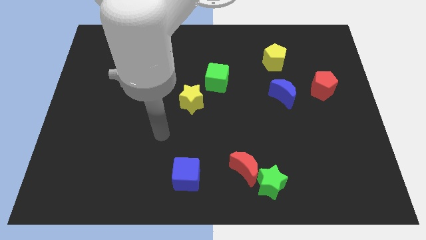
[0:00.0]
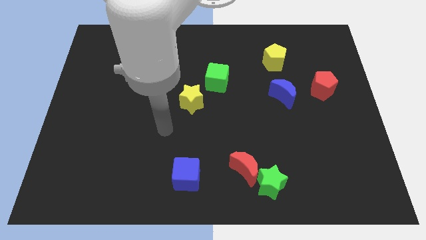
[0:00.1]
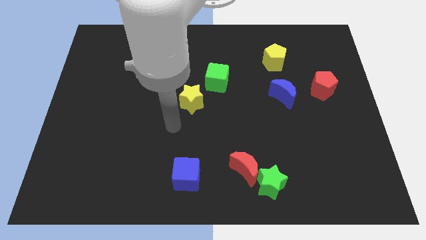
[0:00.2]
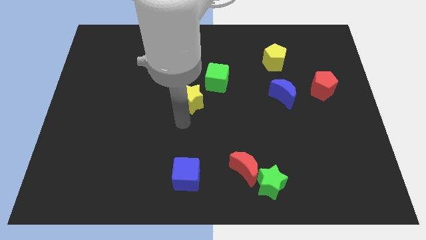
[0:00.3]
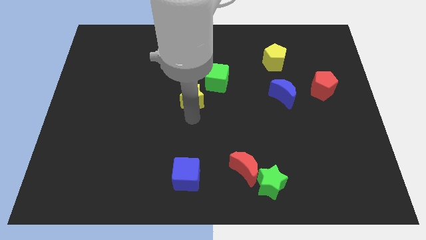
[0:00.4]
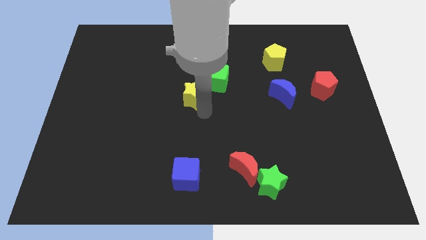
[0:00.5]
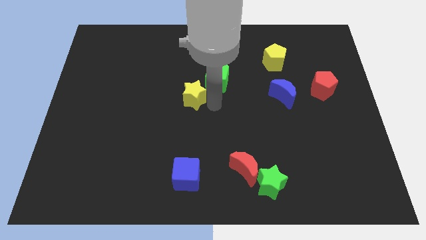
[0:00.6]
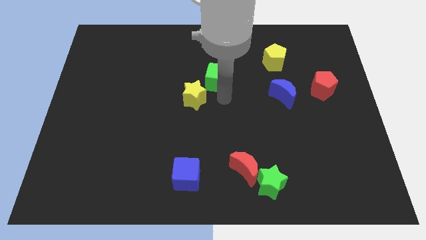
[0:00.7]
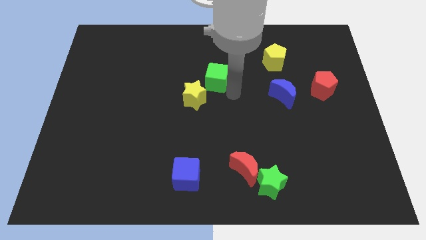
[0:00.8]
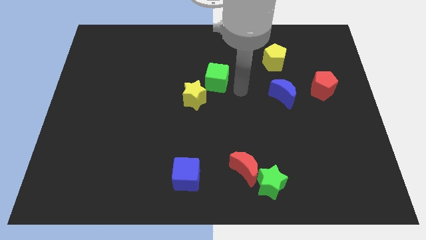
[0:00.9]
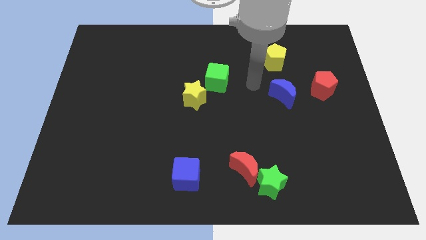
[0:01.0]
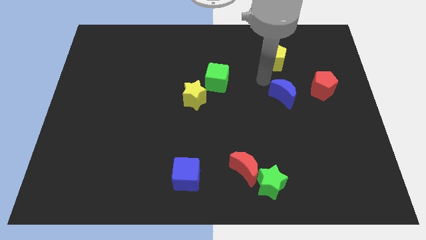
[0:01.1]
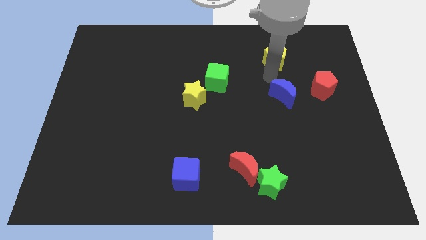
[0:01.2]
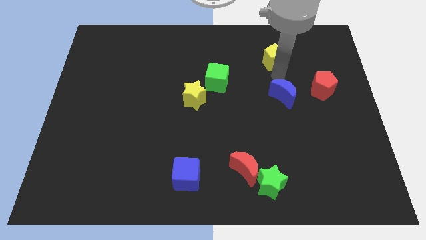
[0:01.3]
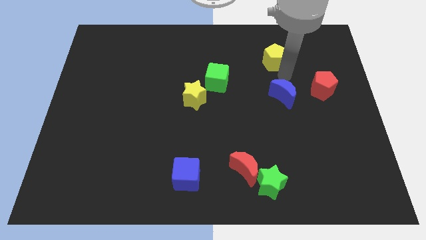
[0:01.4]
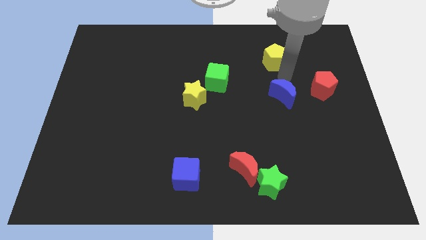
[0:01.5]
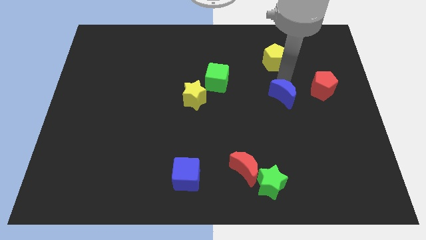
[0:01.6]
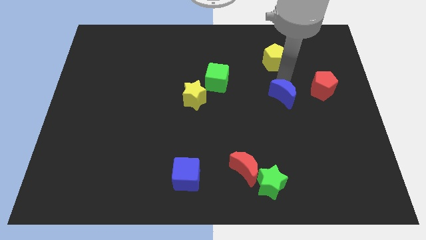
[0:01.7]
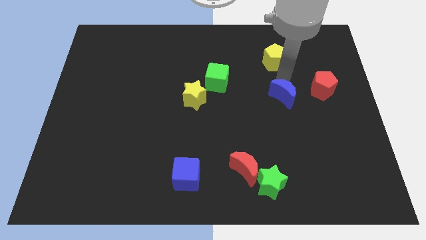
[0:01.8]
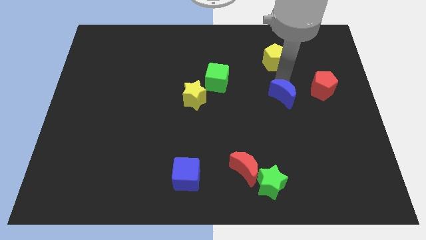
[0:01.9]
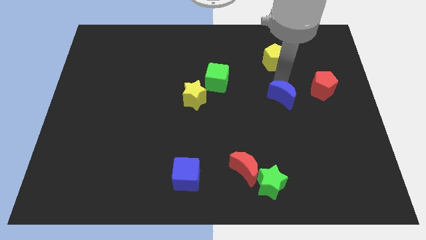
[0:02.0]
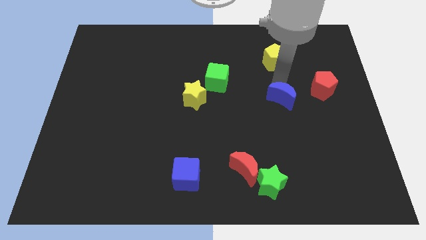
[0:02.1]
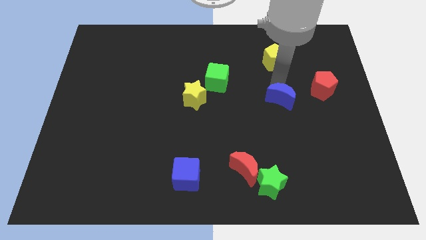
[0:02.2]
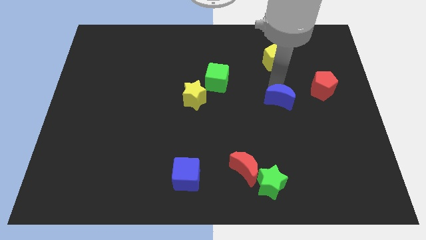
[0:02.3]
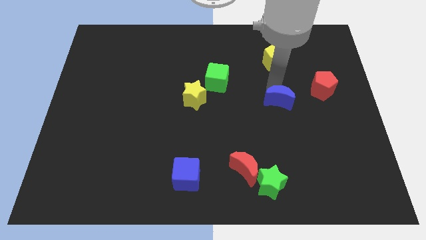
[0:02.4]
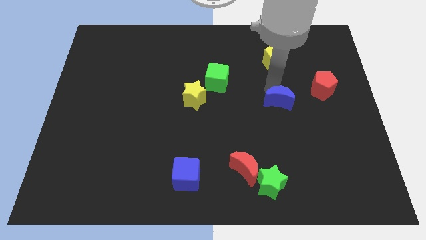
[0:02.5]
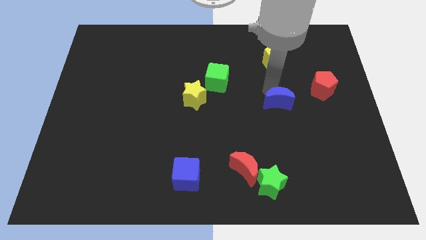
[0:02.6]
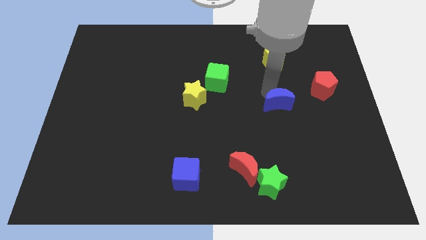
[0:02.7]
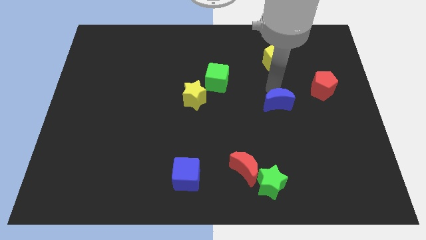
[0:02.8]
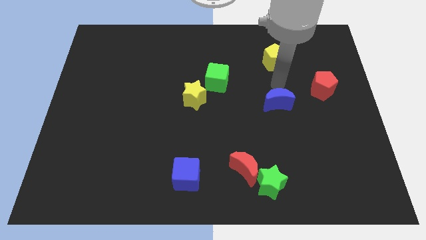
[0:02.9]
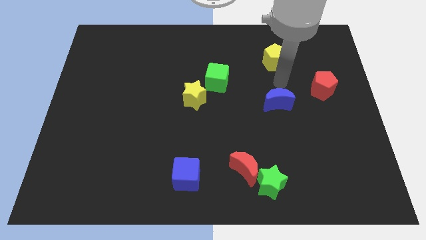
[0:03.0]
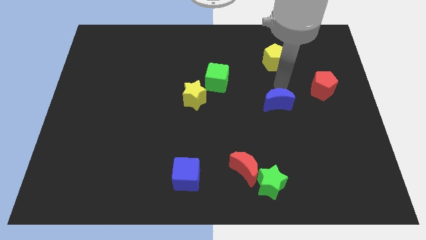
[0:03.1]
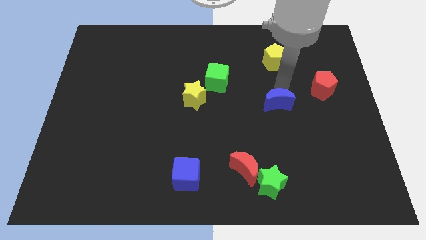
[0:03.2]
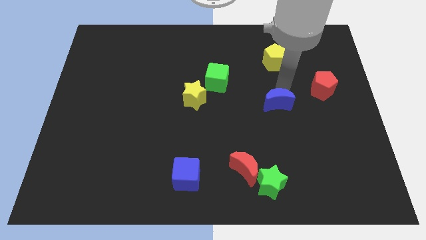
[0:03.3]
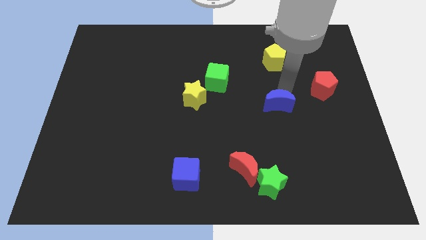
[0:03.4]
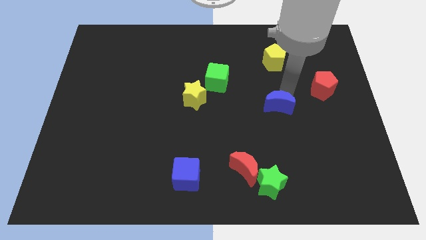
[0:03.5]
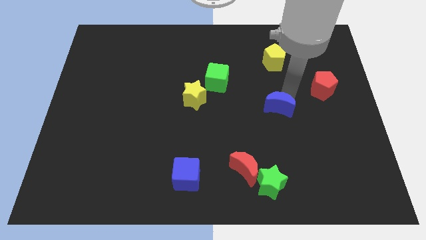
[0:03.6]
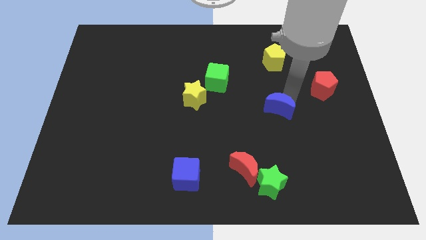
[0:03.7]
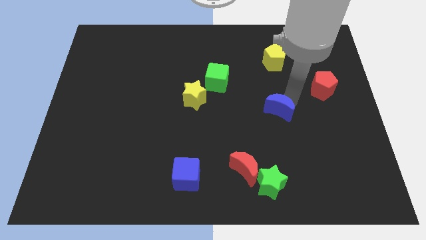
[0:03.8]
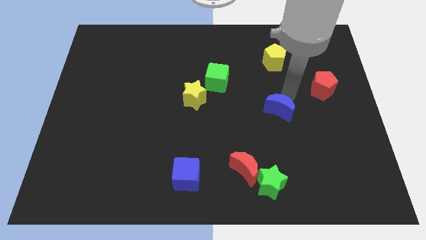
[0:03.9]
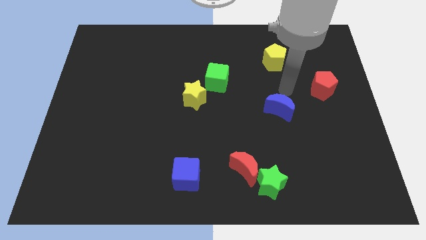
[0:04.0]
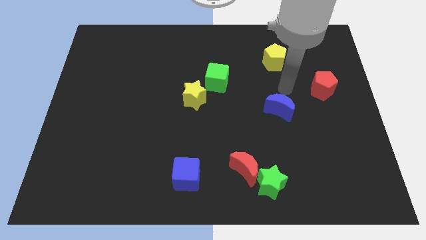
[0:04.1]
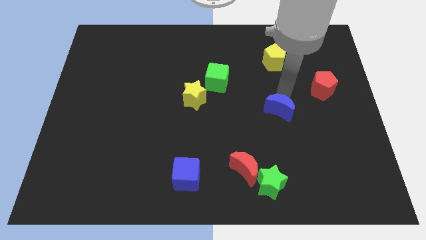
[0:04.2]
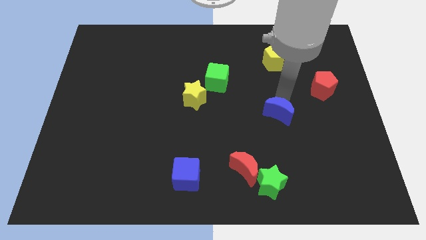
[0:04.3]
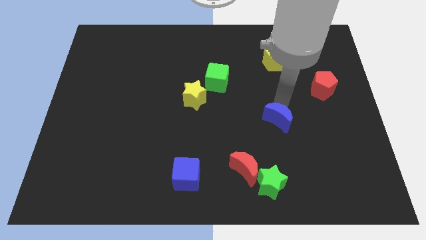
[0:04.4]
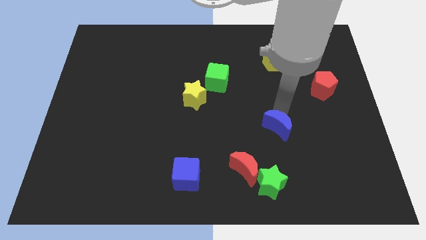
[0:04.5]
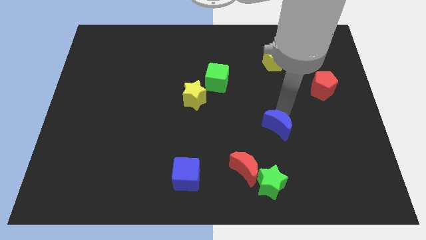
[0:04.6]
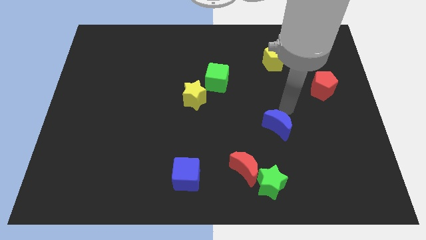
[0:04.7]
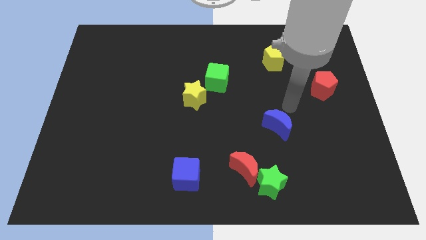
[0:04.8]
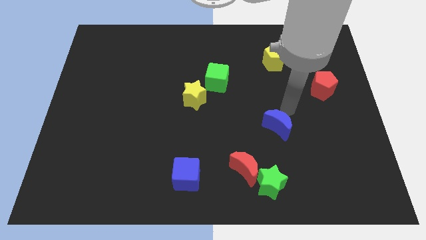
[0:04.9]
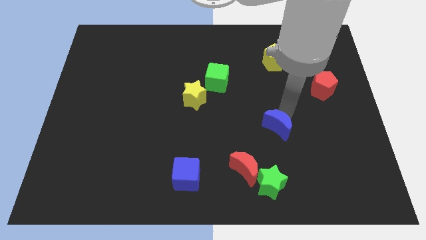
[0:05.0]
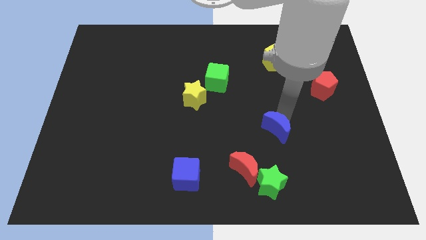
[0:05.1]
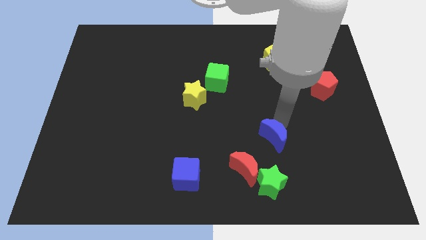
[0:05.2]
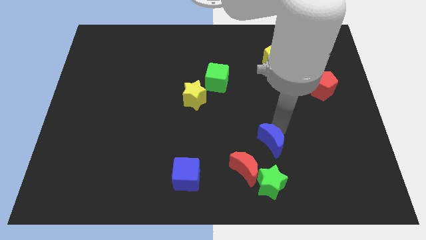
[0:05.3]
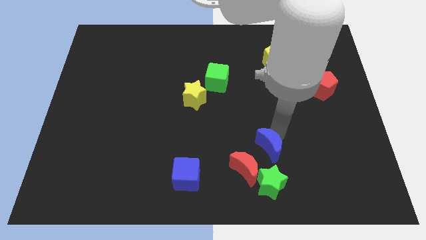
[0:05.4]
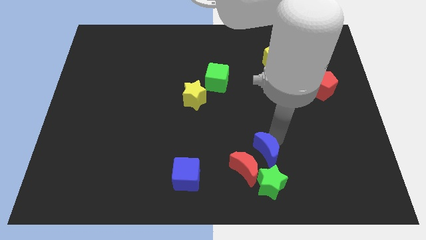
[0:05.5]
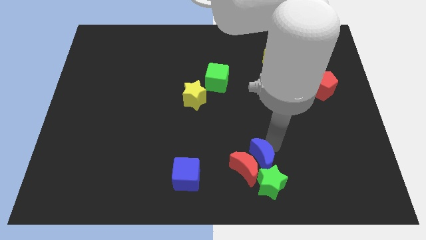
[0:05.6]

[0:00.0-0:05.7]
put the blue moon to the red moon

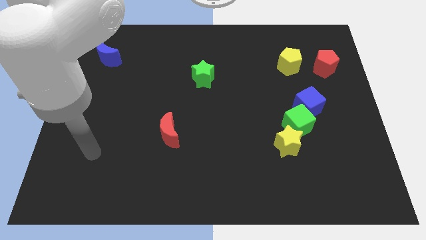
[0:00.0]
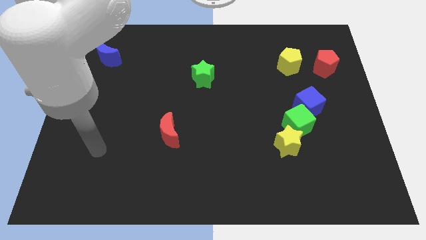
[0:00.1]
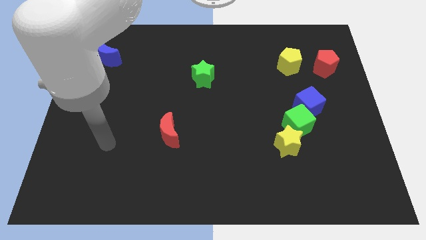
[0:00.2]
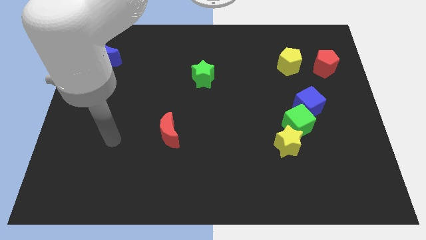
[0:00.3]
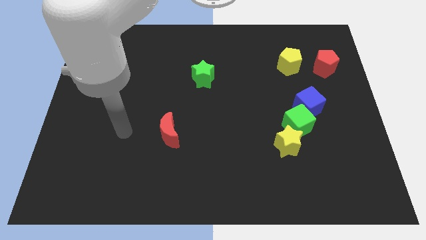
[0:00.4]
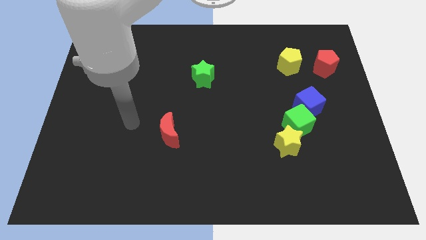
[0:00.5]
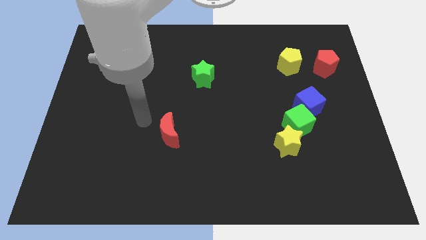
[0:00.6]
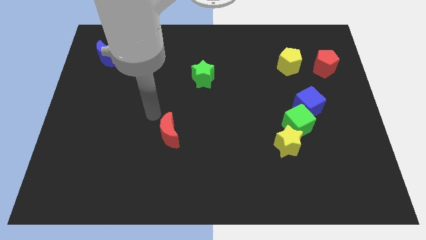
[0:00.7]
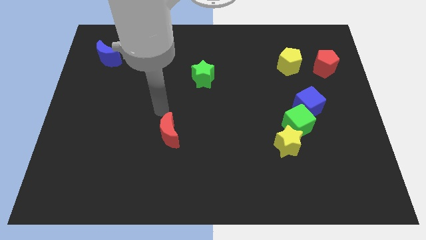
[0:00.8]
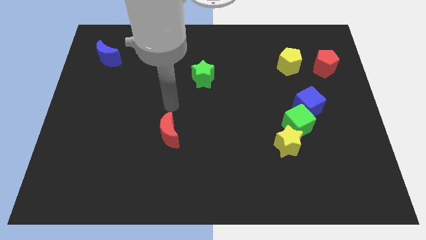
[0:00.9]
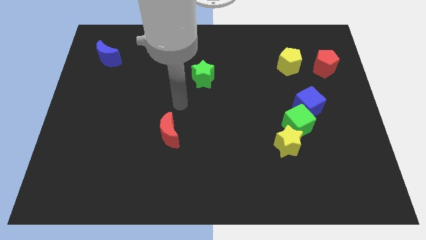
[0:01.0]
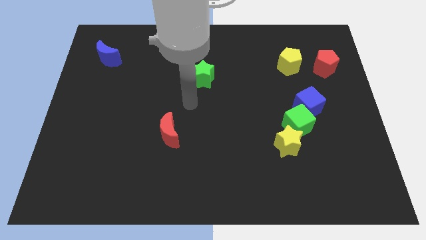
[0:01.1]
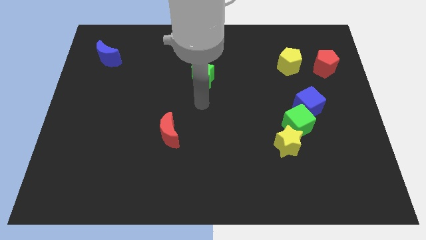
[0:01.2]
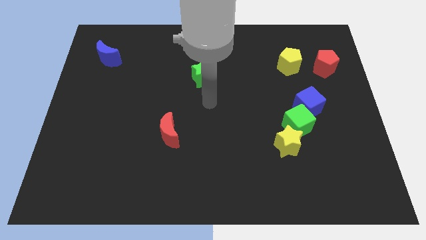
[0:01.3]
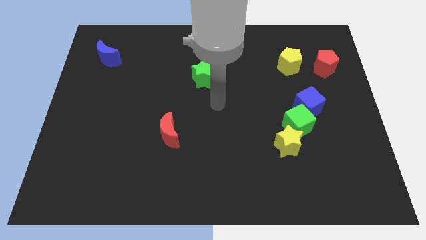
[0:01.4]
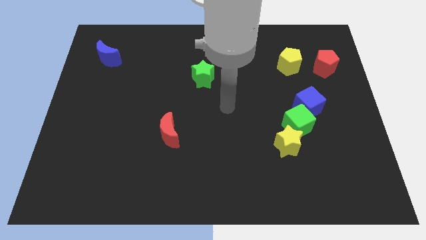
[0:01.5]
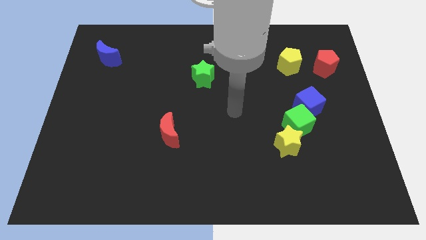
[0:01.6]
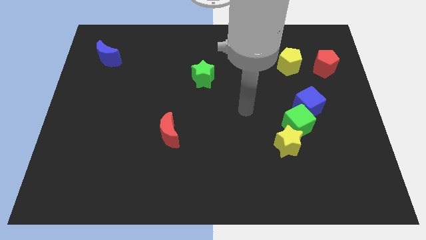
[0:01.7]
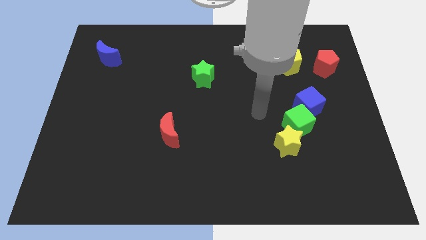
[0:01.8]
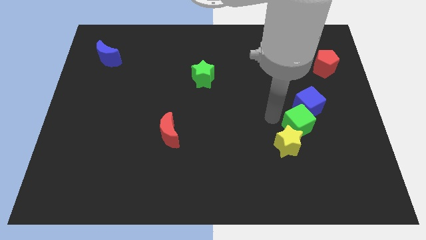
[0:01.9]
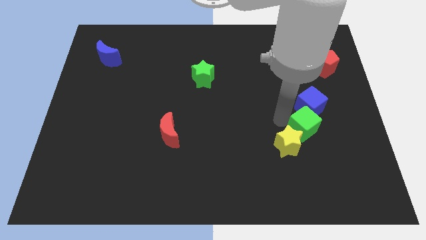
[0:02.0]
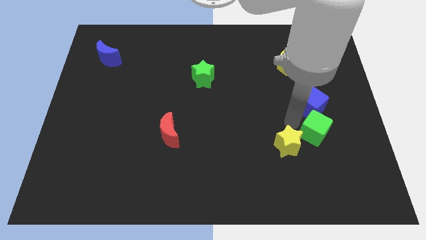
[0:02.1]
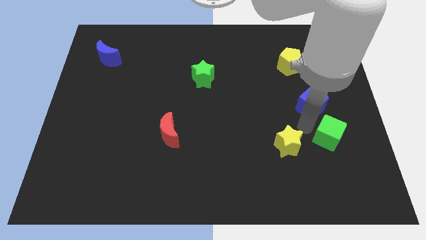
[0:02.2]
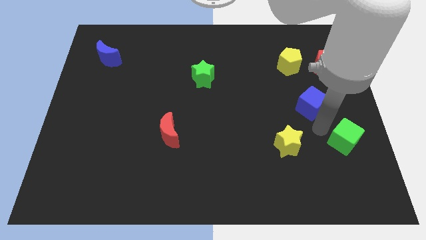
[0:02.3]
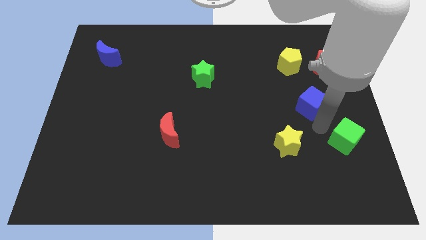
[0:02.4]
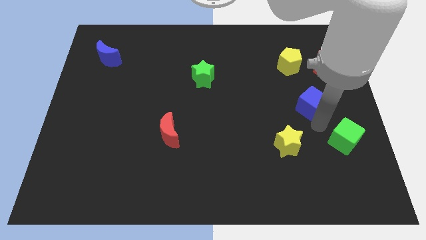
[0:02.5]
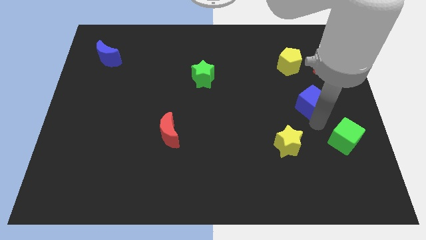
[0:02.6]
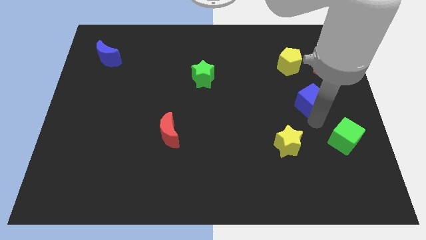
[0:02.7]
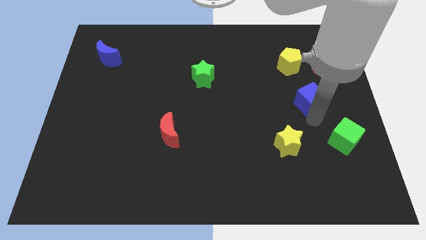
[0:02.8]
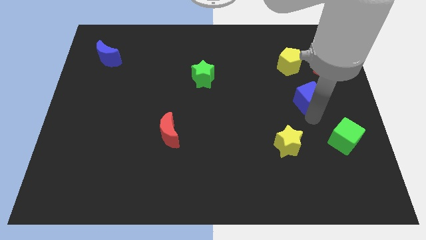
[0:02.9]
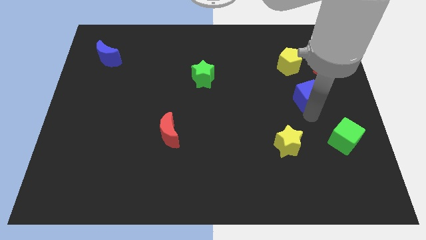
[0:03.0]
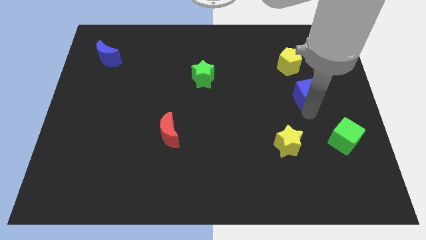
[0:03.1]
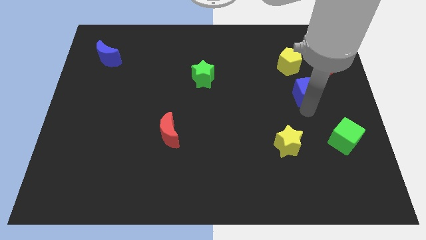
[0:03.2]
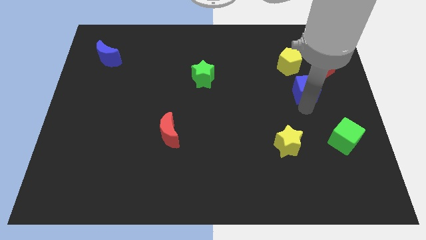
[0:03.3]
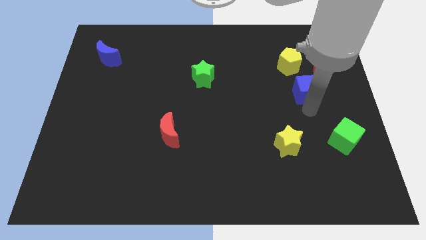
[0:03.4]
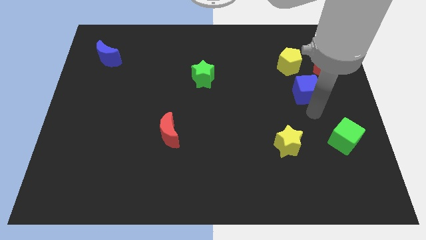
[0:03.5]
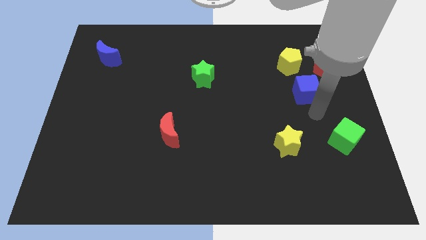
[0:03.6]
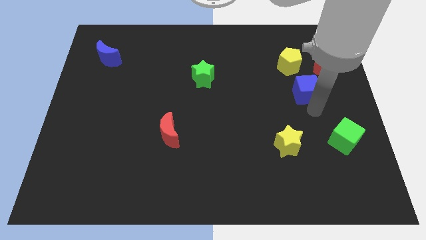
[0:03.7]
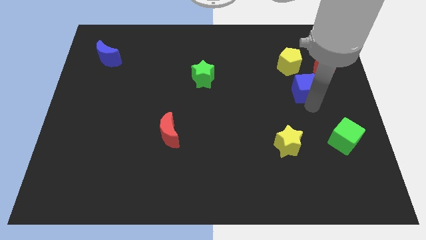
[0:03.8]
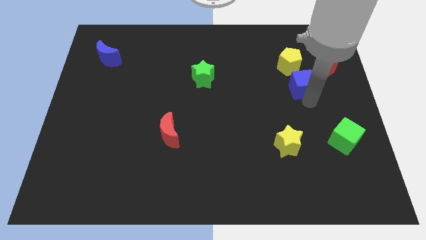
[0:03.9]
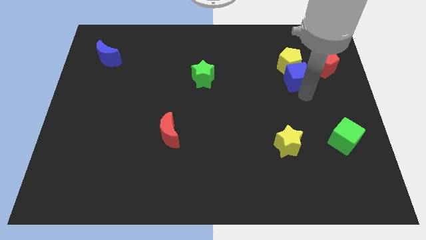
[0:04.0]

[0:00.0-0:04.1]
put the blue cube next to the yellow pentagon
